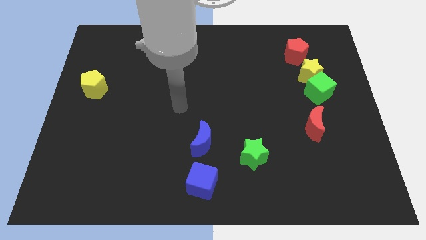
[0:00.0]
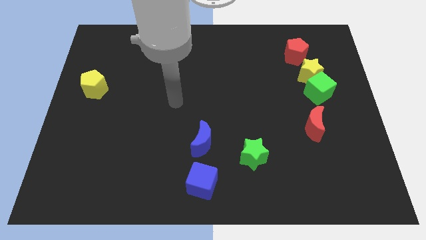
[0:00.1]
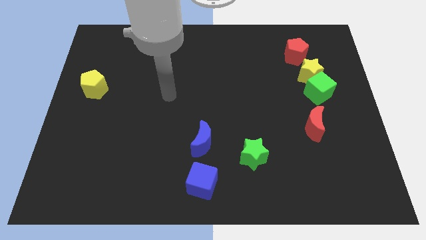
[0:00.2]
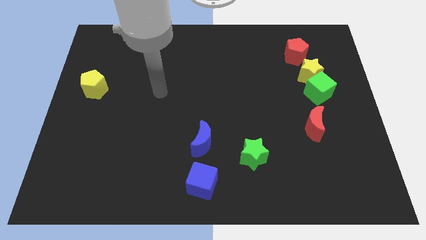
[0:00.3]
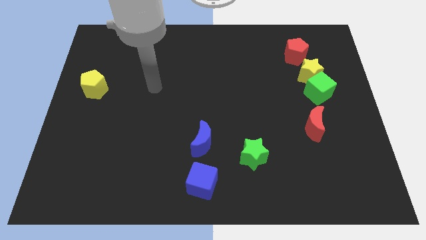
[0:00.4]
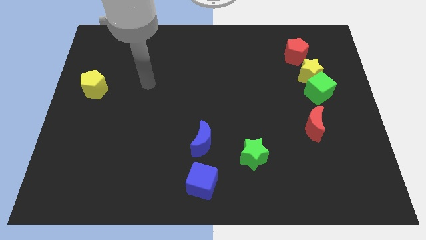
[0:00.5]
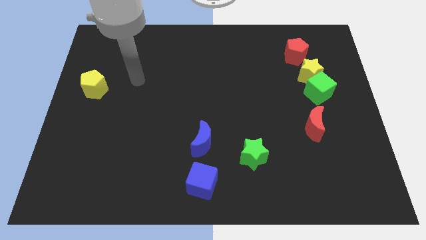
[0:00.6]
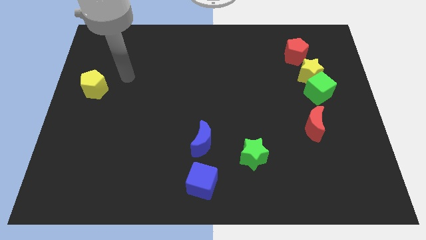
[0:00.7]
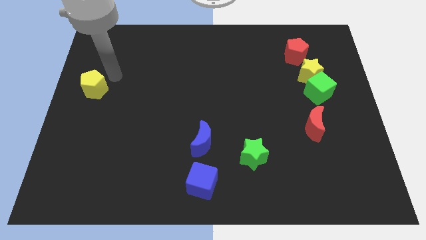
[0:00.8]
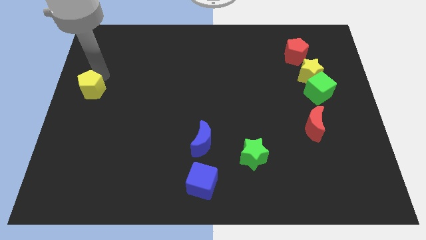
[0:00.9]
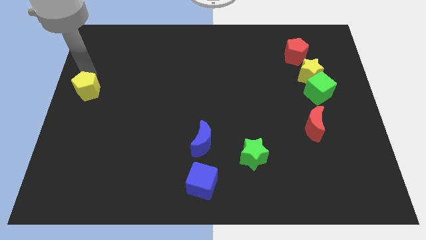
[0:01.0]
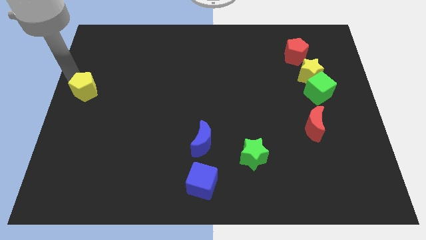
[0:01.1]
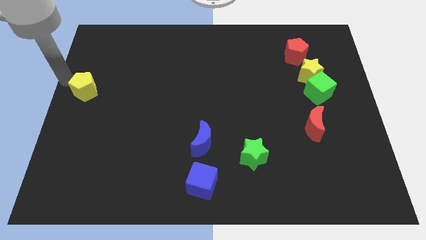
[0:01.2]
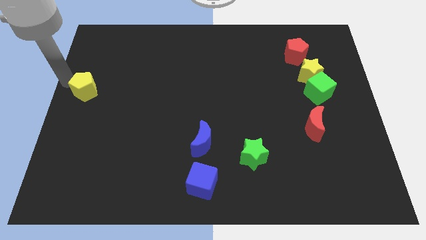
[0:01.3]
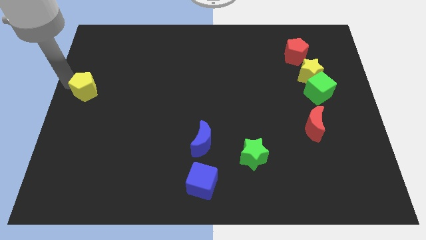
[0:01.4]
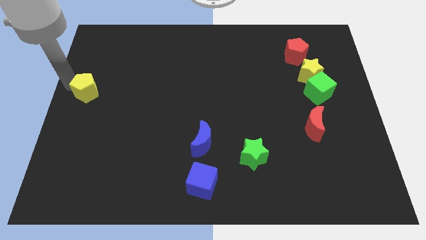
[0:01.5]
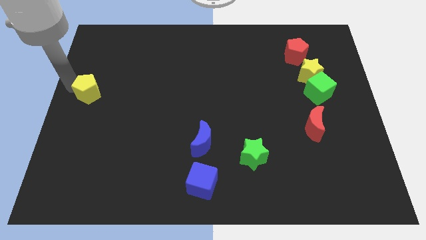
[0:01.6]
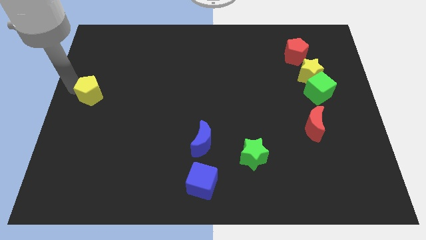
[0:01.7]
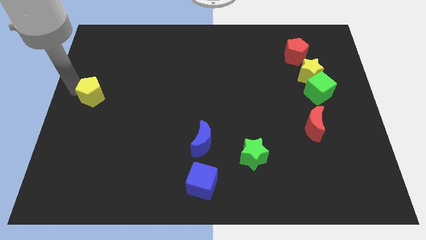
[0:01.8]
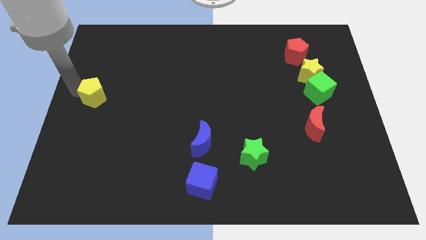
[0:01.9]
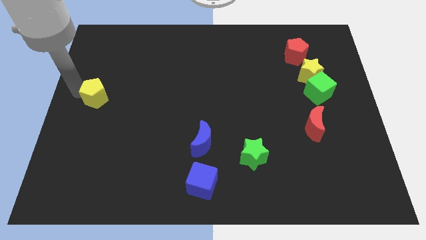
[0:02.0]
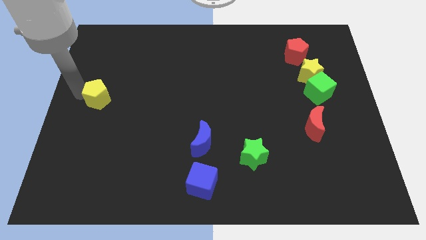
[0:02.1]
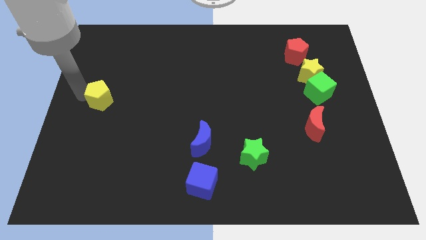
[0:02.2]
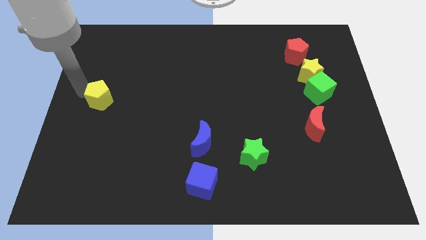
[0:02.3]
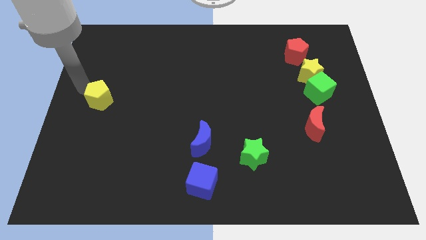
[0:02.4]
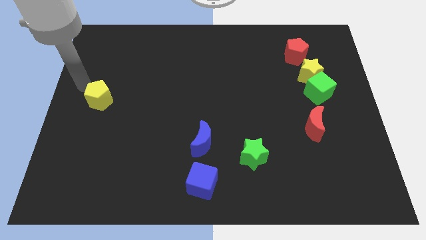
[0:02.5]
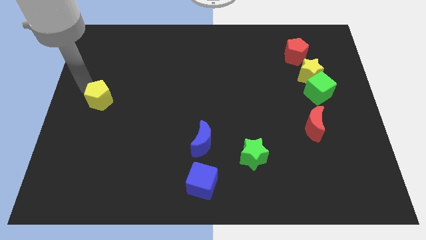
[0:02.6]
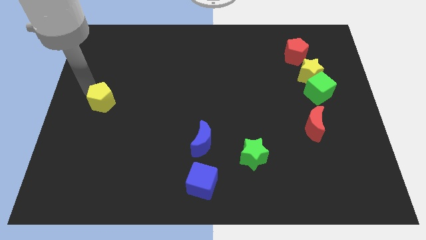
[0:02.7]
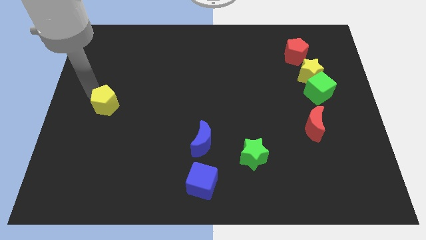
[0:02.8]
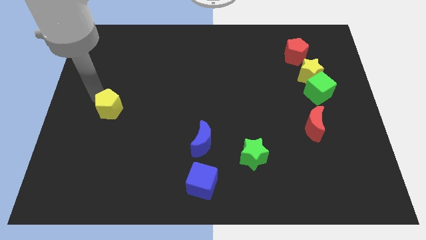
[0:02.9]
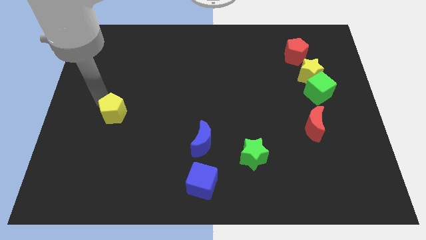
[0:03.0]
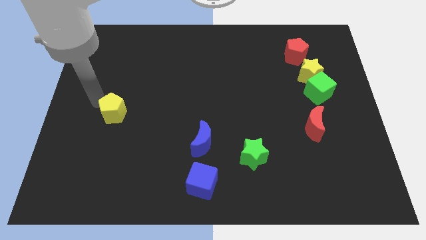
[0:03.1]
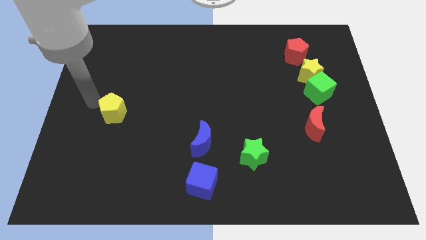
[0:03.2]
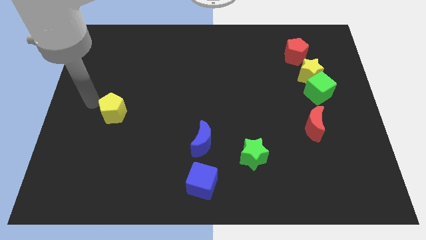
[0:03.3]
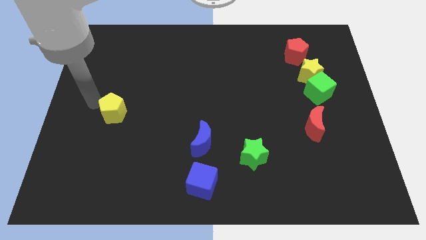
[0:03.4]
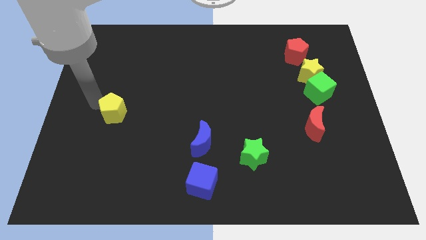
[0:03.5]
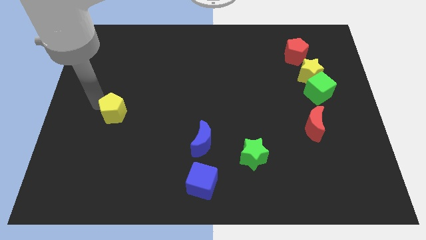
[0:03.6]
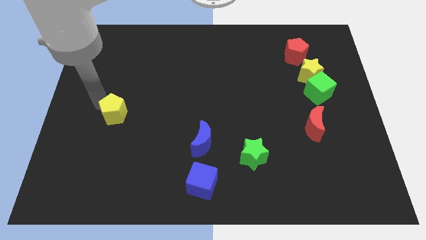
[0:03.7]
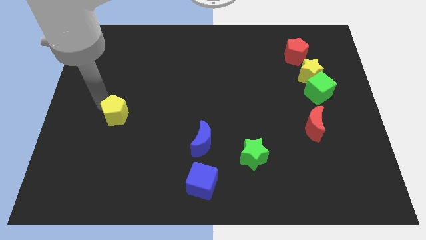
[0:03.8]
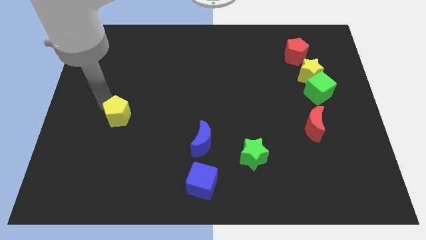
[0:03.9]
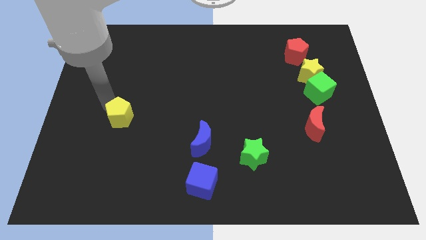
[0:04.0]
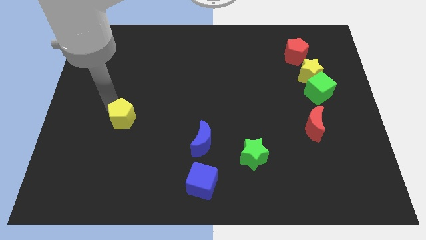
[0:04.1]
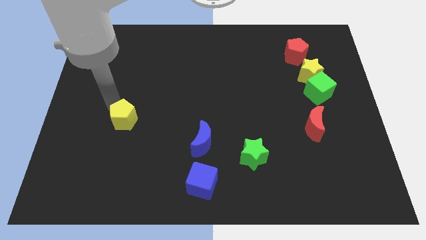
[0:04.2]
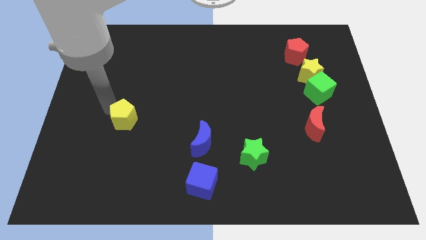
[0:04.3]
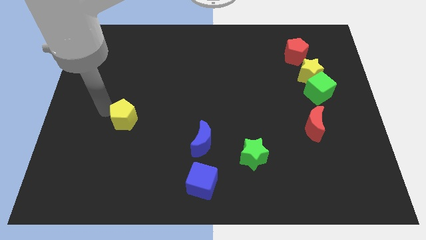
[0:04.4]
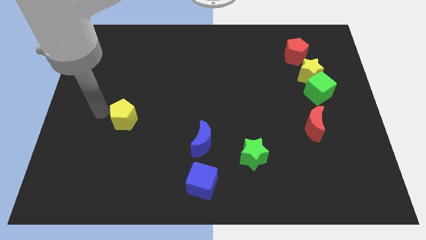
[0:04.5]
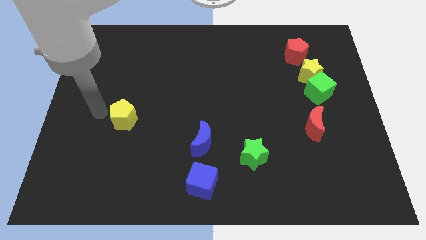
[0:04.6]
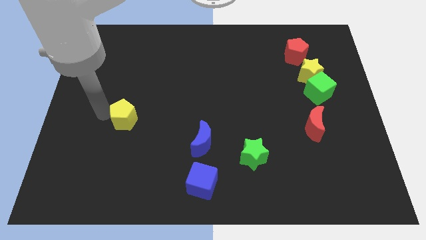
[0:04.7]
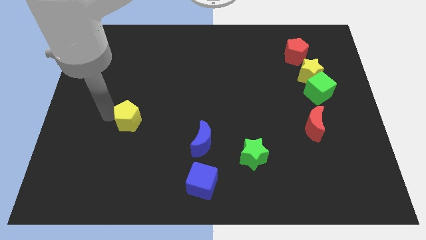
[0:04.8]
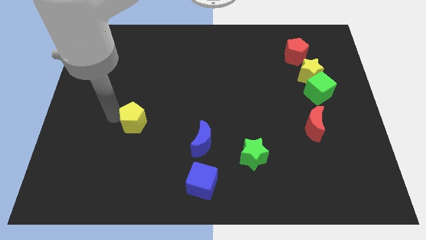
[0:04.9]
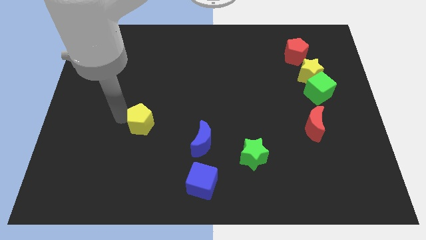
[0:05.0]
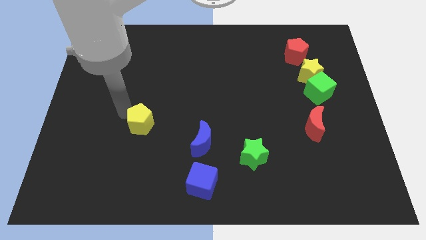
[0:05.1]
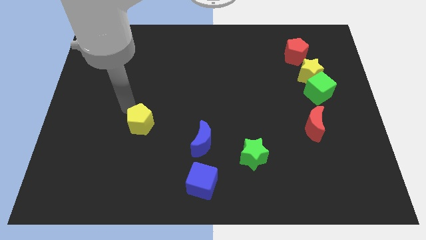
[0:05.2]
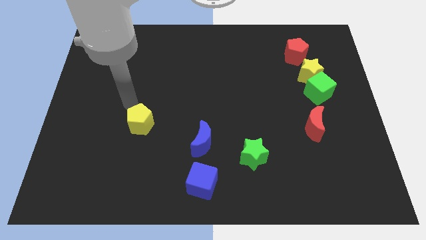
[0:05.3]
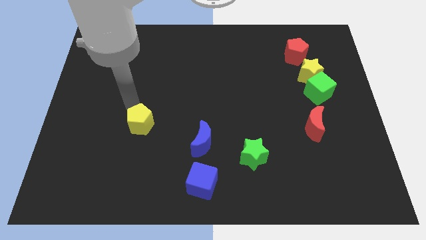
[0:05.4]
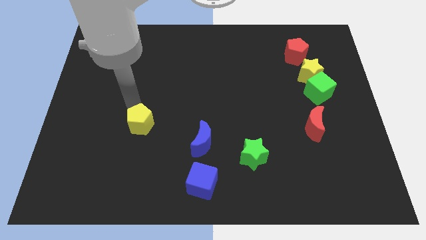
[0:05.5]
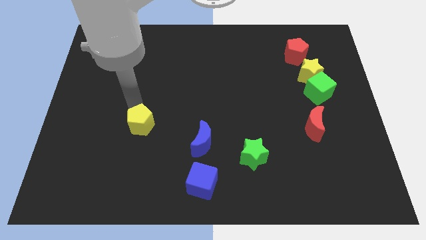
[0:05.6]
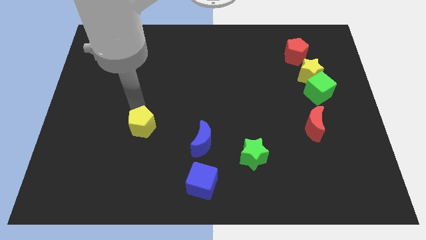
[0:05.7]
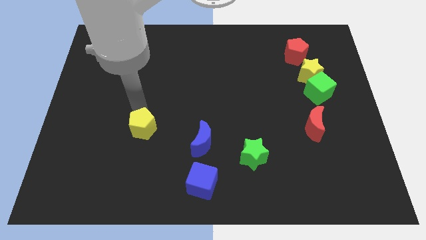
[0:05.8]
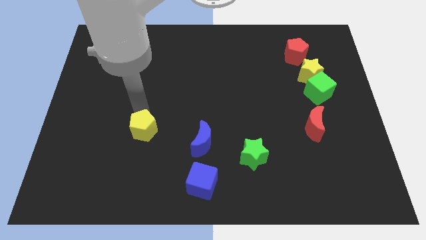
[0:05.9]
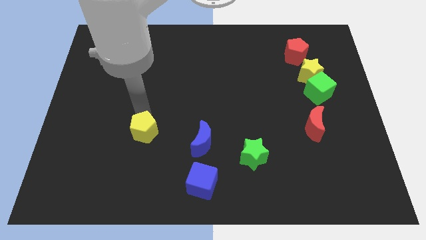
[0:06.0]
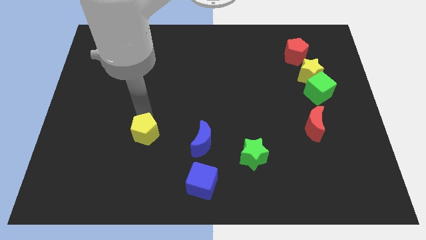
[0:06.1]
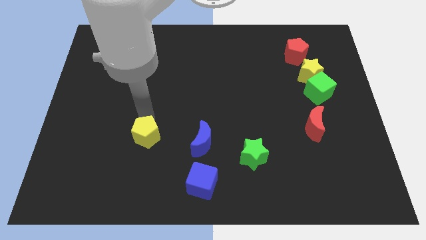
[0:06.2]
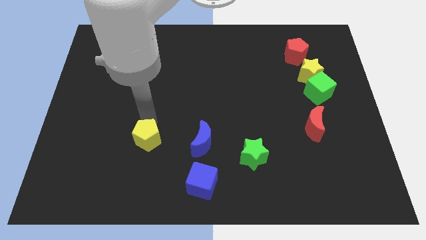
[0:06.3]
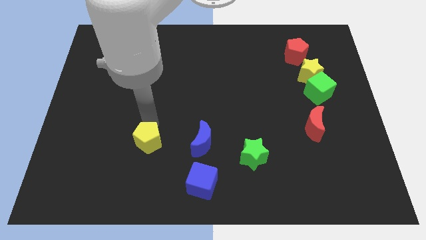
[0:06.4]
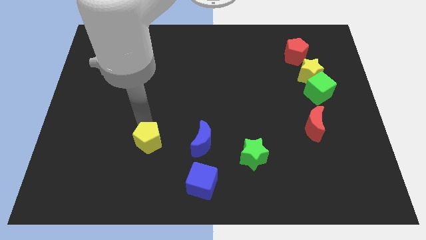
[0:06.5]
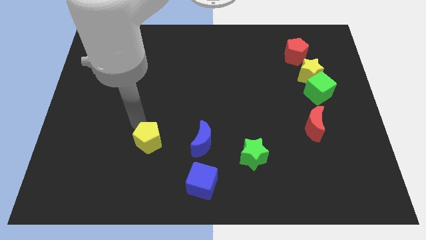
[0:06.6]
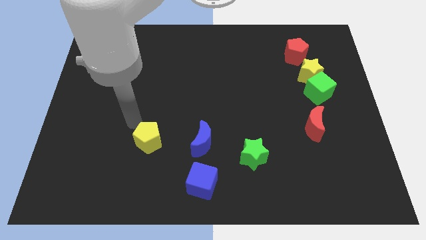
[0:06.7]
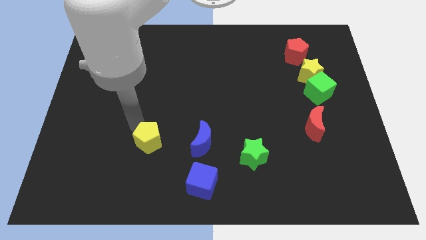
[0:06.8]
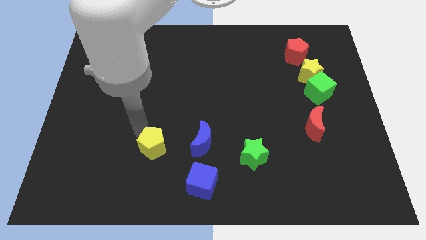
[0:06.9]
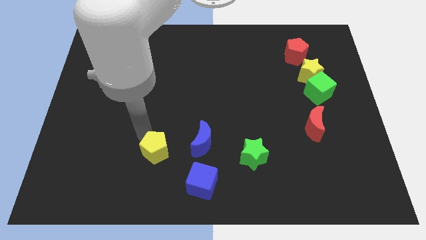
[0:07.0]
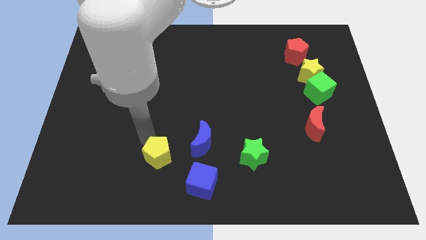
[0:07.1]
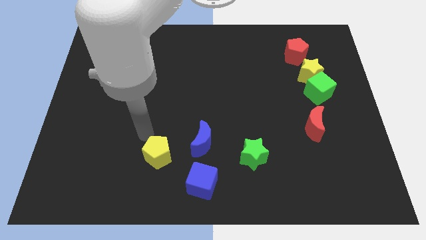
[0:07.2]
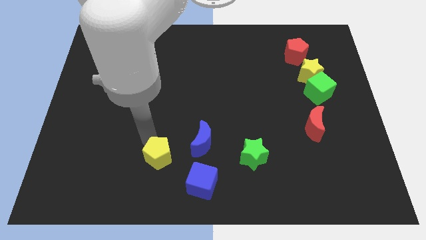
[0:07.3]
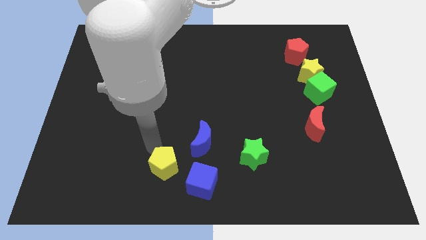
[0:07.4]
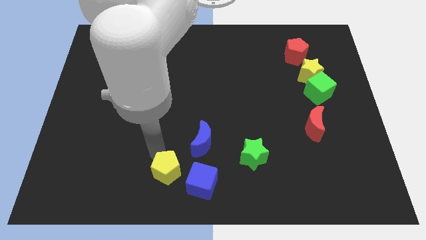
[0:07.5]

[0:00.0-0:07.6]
slide the yellow pentagon to the bottom

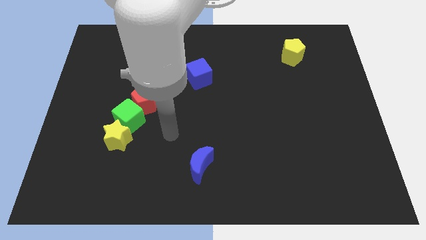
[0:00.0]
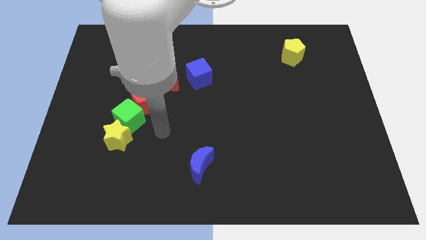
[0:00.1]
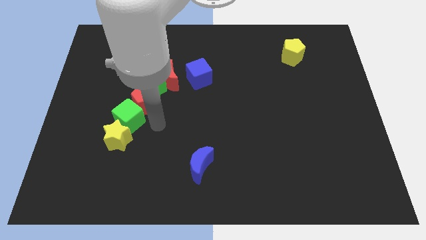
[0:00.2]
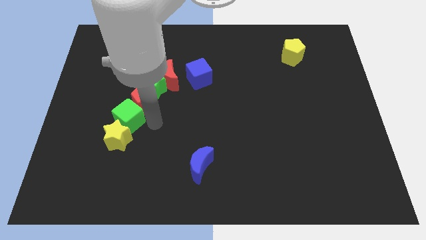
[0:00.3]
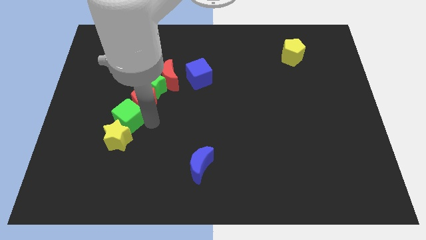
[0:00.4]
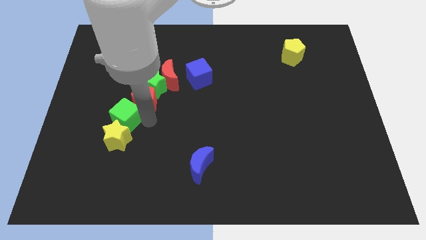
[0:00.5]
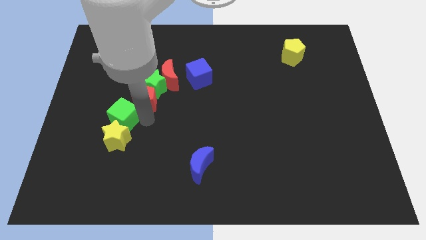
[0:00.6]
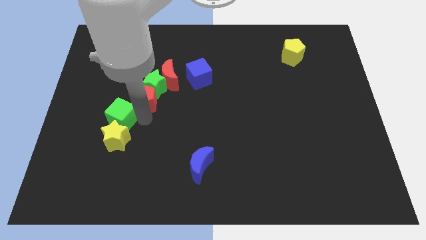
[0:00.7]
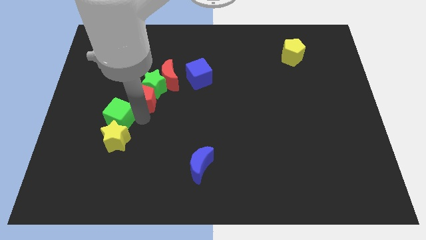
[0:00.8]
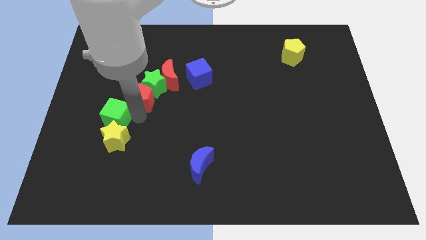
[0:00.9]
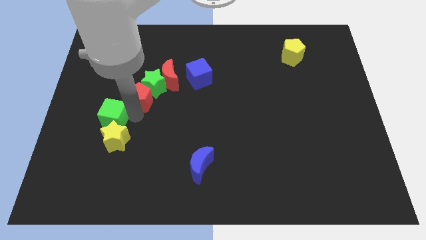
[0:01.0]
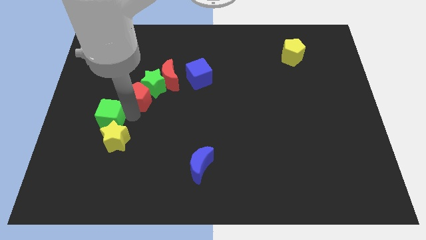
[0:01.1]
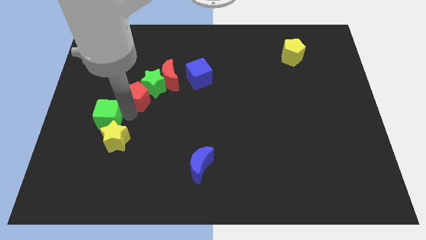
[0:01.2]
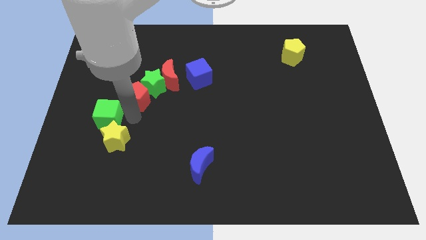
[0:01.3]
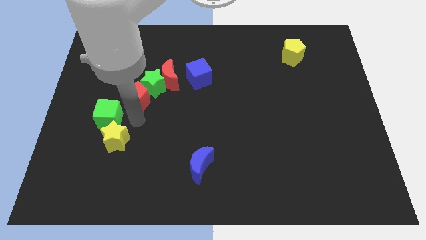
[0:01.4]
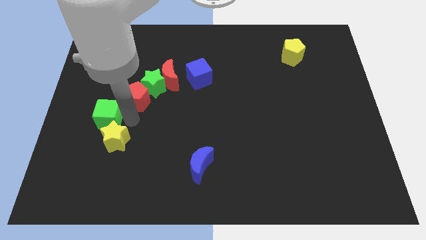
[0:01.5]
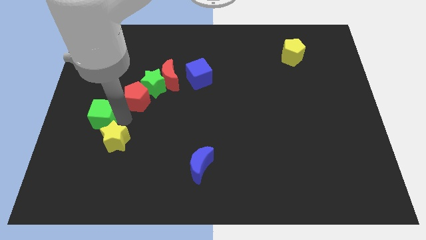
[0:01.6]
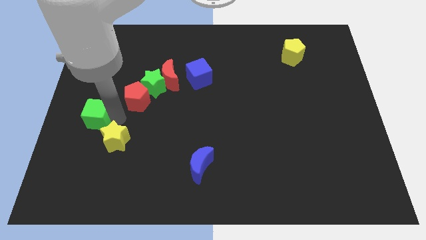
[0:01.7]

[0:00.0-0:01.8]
push the green cube to the center left
